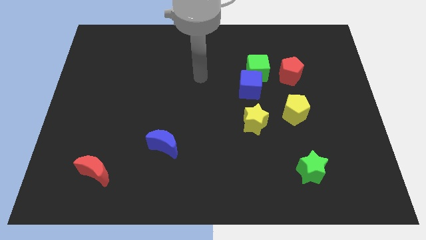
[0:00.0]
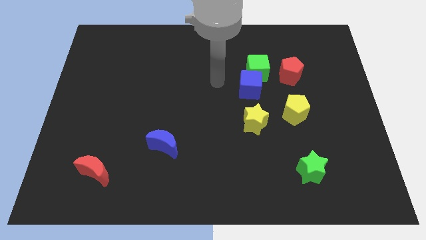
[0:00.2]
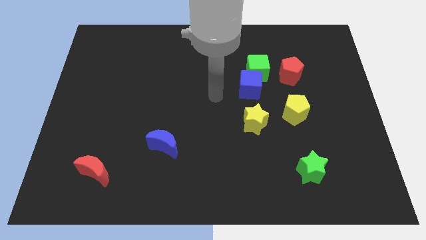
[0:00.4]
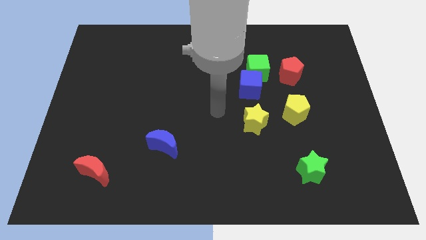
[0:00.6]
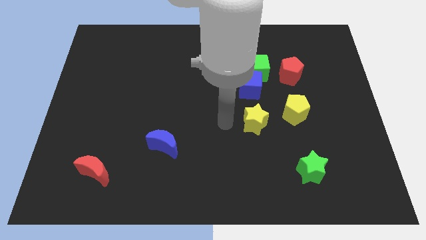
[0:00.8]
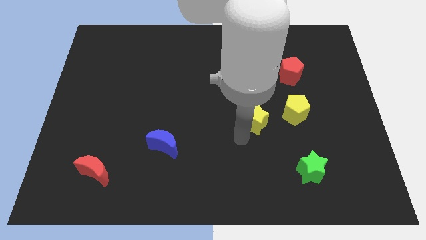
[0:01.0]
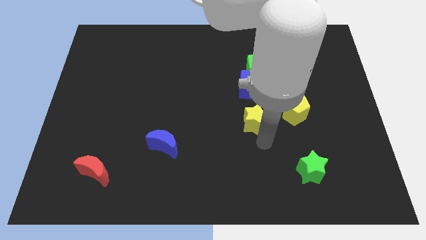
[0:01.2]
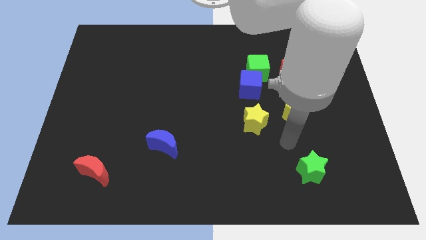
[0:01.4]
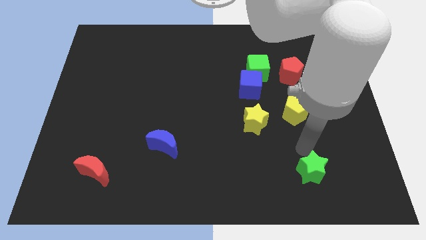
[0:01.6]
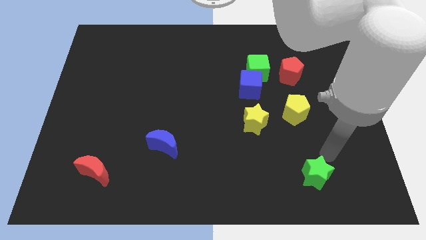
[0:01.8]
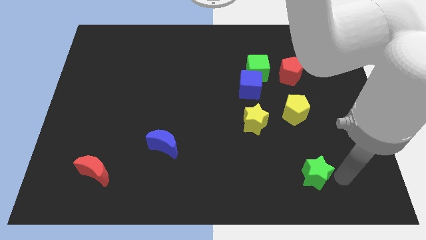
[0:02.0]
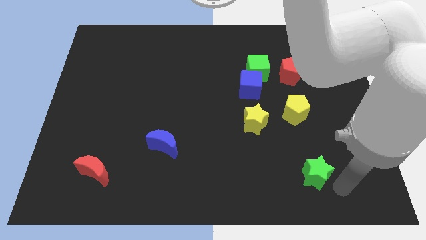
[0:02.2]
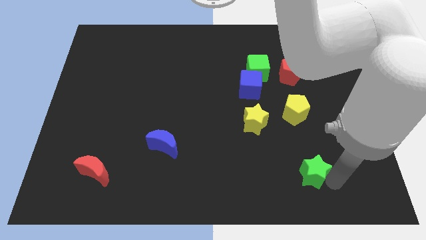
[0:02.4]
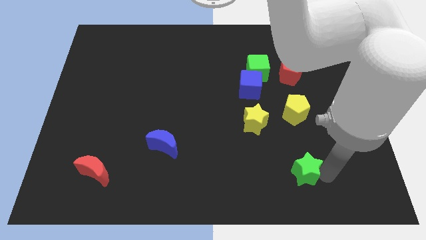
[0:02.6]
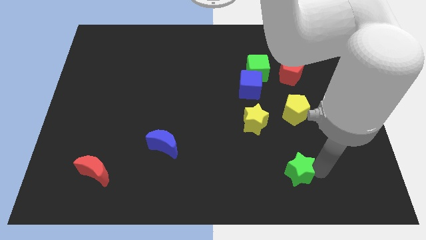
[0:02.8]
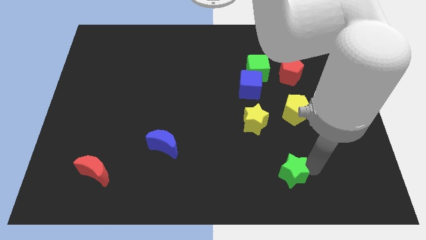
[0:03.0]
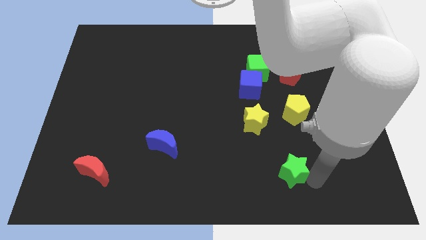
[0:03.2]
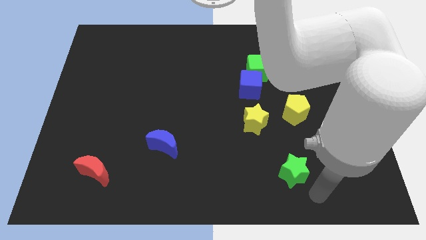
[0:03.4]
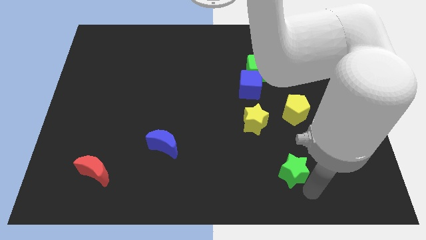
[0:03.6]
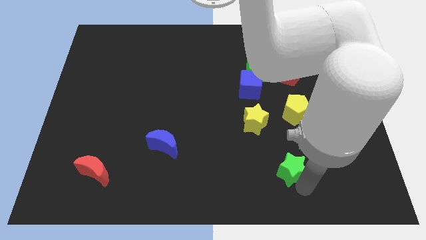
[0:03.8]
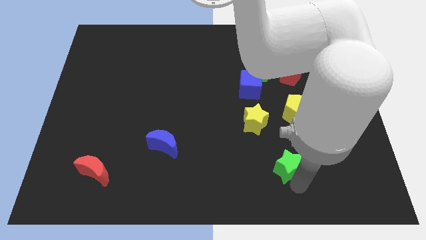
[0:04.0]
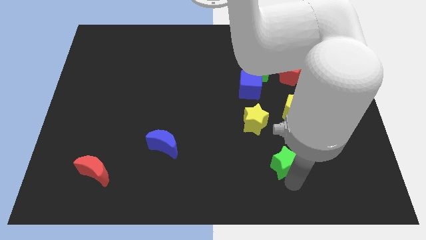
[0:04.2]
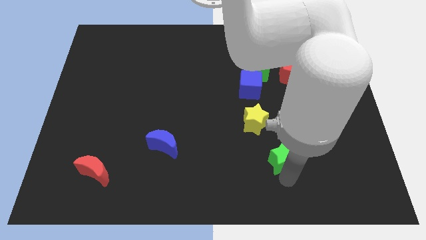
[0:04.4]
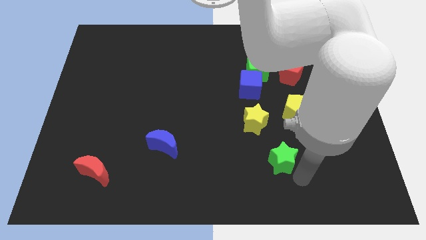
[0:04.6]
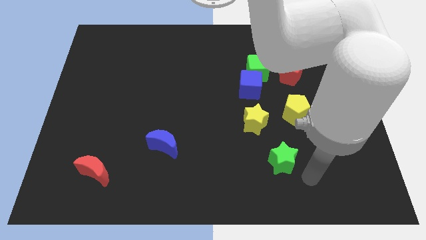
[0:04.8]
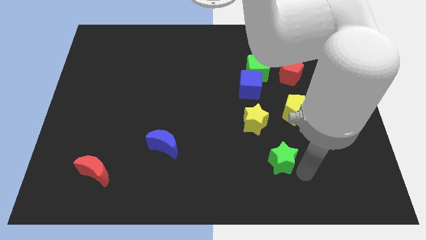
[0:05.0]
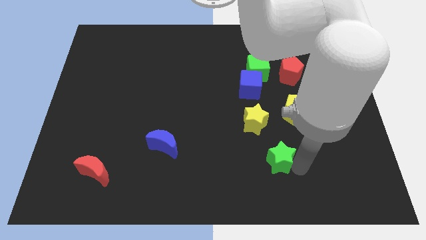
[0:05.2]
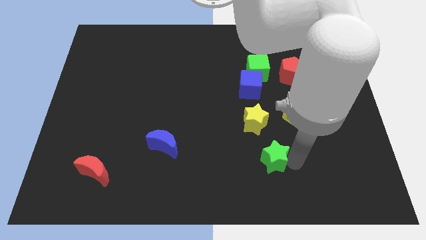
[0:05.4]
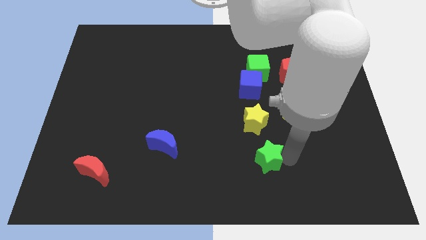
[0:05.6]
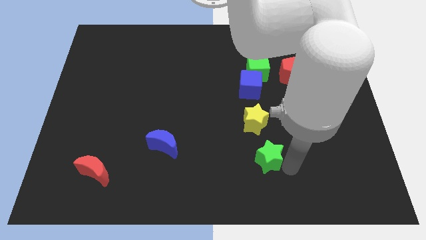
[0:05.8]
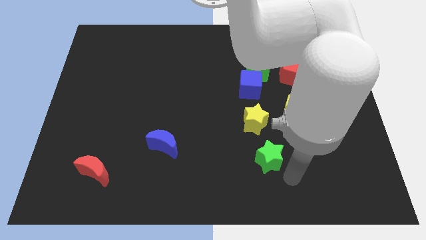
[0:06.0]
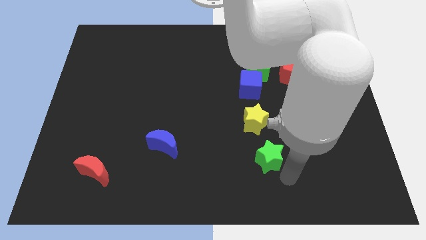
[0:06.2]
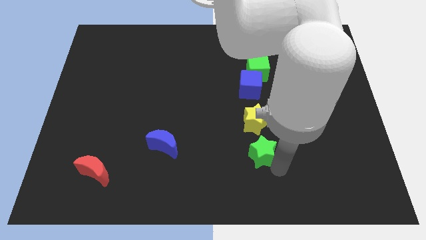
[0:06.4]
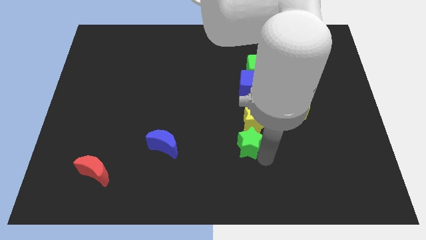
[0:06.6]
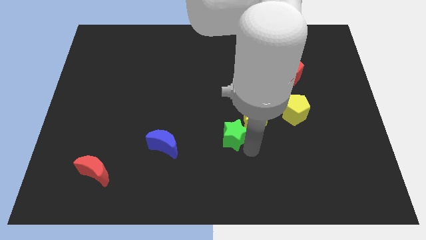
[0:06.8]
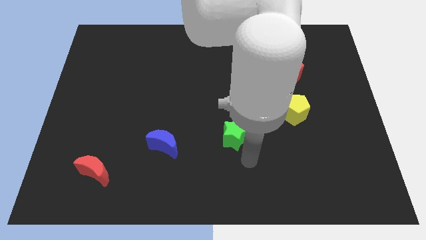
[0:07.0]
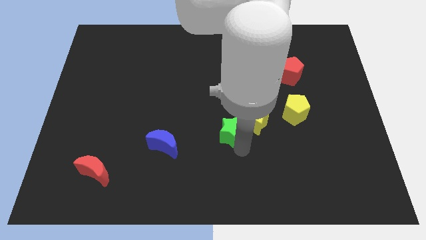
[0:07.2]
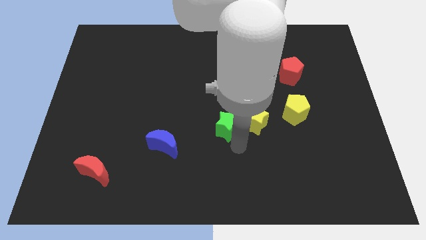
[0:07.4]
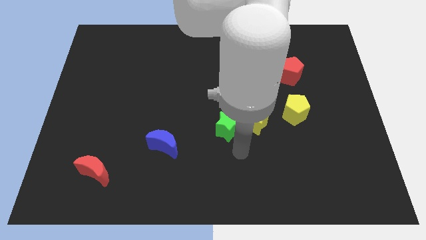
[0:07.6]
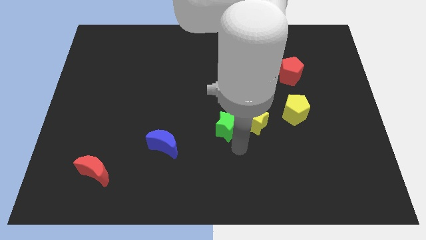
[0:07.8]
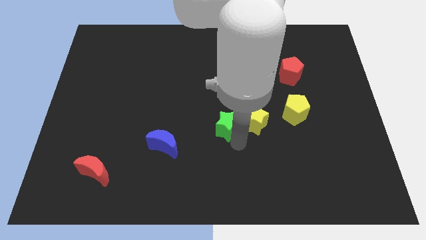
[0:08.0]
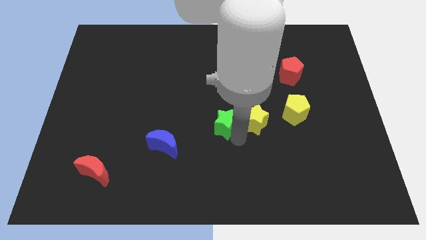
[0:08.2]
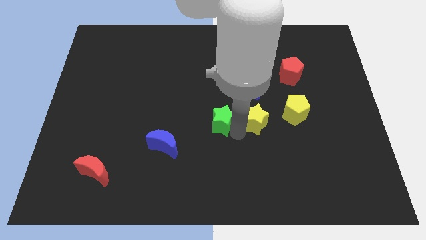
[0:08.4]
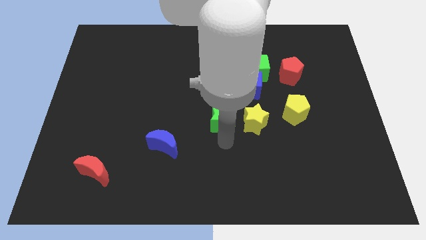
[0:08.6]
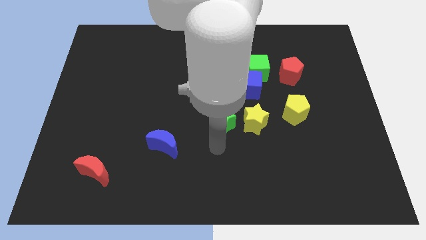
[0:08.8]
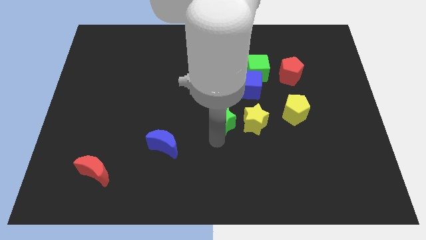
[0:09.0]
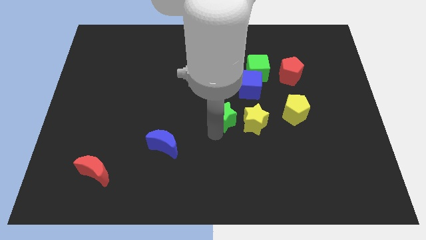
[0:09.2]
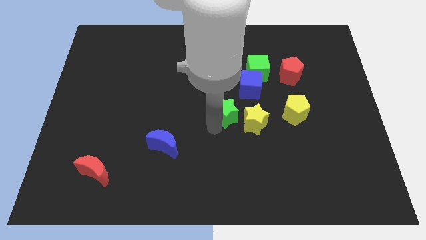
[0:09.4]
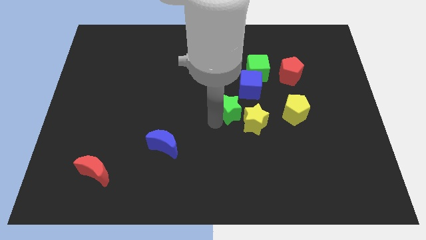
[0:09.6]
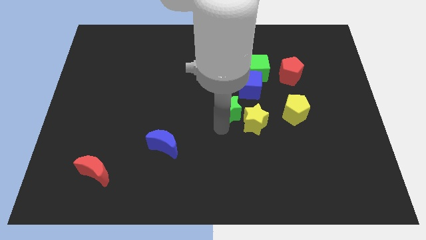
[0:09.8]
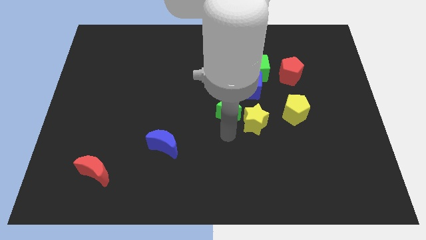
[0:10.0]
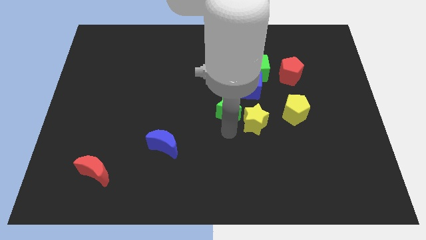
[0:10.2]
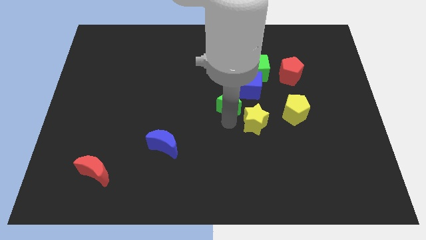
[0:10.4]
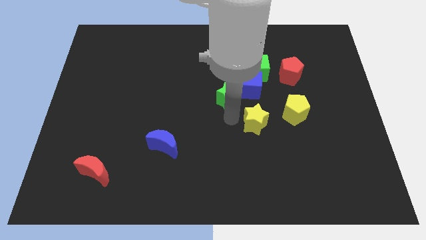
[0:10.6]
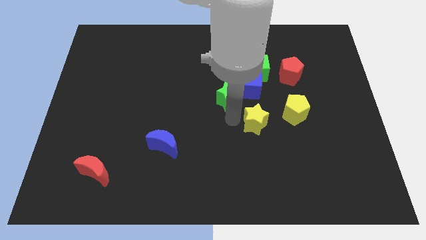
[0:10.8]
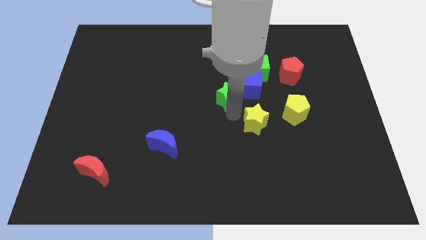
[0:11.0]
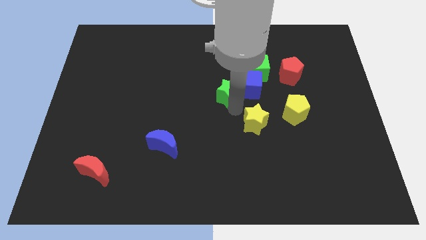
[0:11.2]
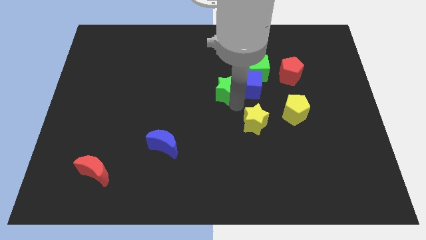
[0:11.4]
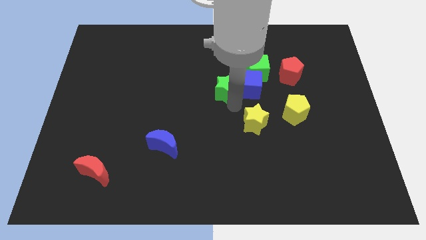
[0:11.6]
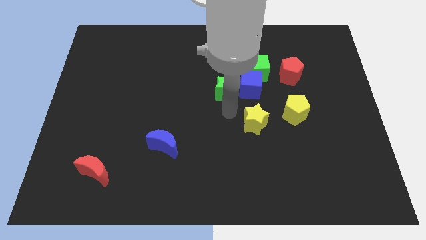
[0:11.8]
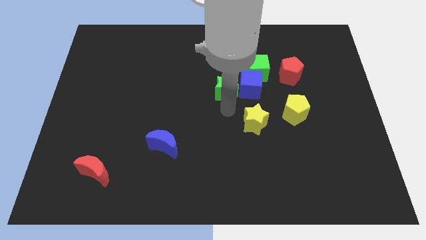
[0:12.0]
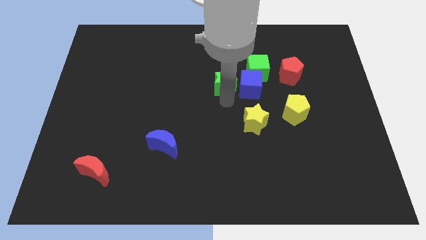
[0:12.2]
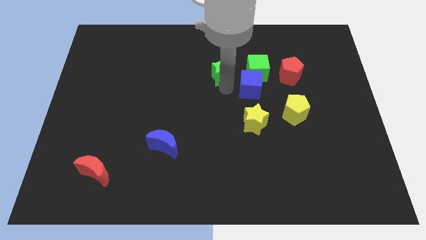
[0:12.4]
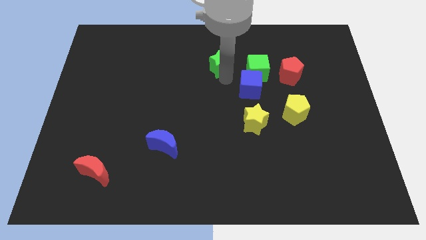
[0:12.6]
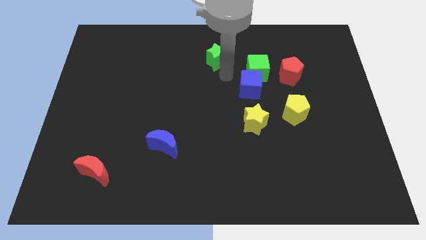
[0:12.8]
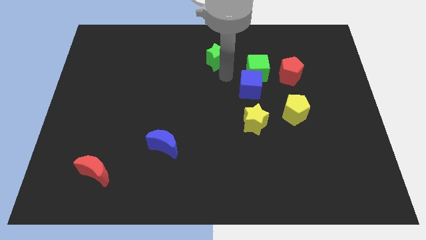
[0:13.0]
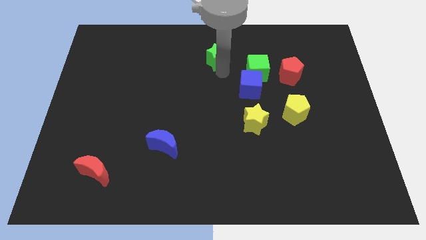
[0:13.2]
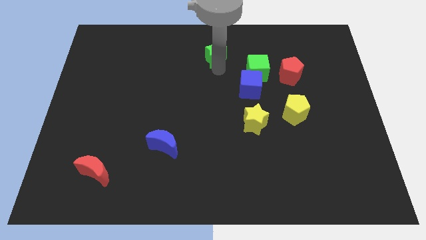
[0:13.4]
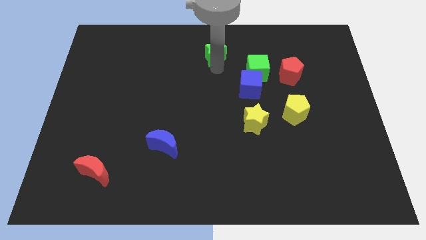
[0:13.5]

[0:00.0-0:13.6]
move the green star to the top
